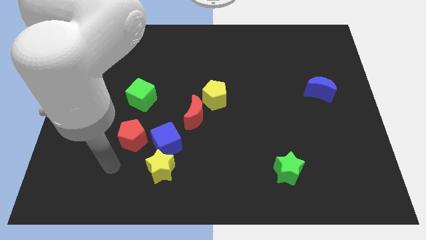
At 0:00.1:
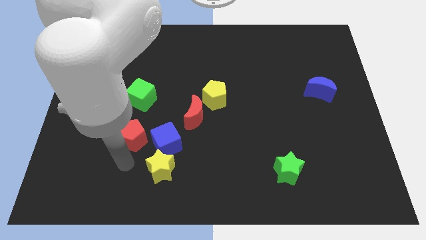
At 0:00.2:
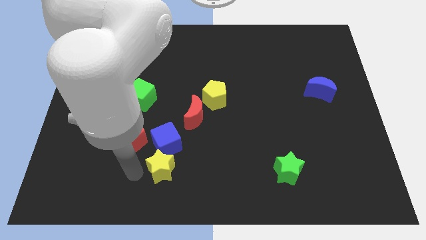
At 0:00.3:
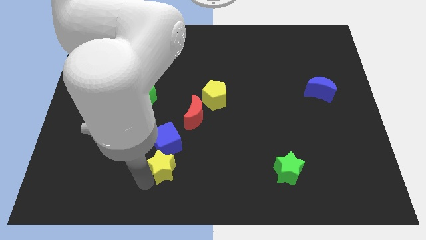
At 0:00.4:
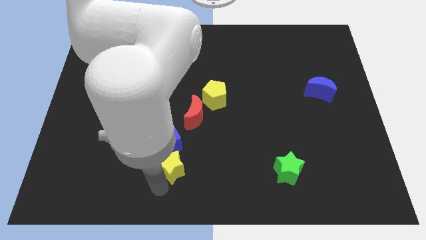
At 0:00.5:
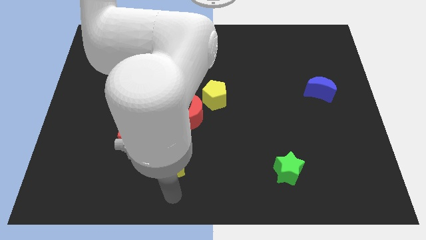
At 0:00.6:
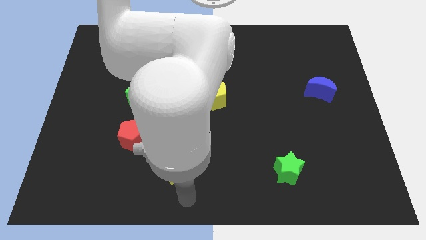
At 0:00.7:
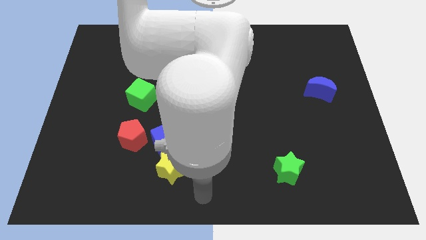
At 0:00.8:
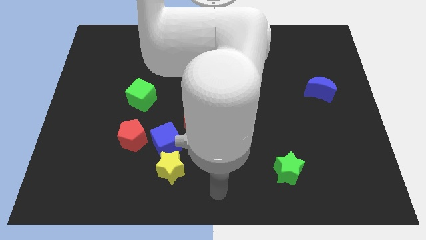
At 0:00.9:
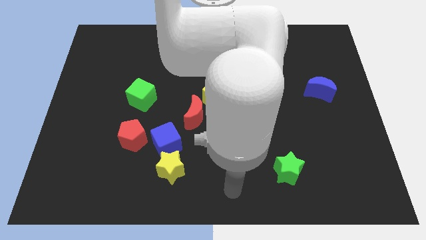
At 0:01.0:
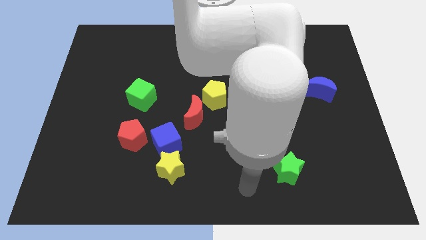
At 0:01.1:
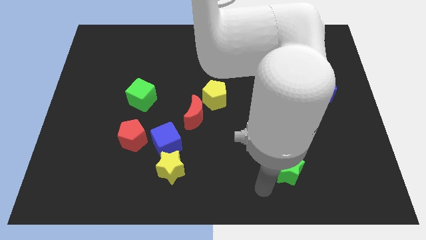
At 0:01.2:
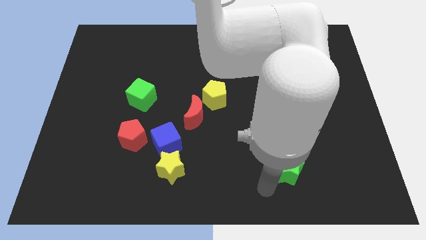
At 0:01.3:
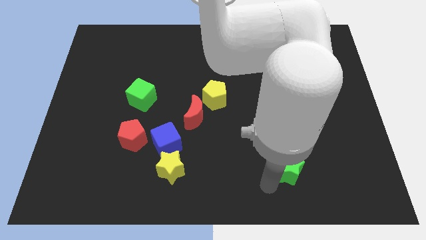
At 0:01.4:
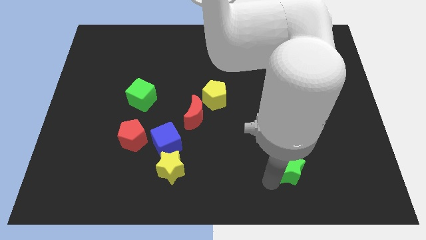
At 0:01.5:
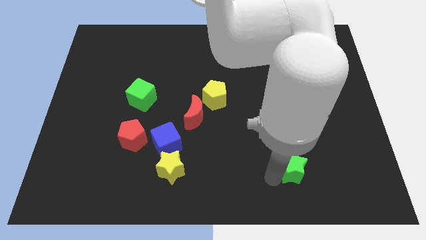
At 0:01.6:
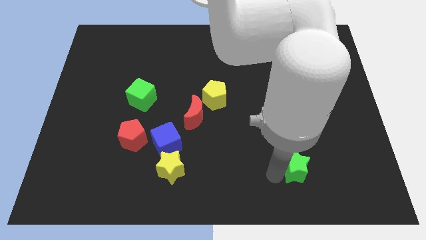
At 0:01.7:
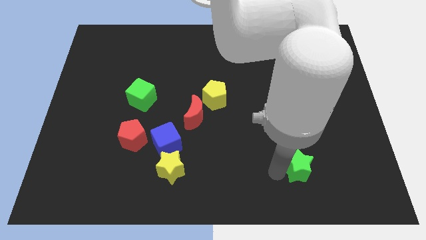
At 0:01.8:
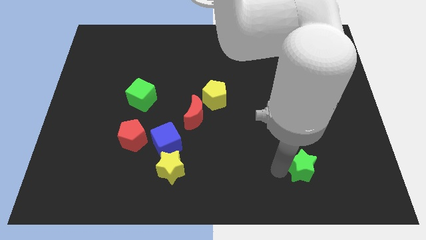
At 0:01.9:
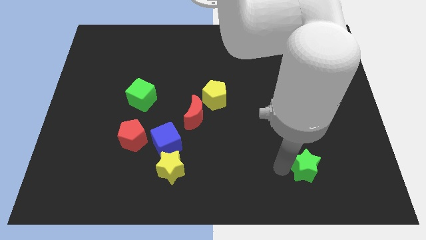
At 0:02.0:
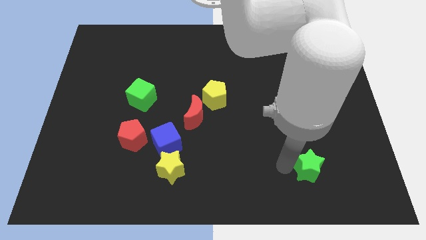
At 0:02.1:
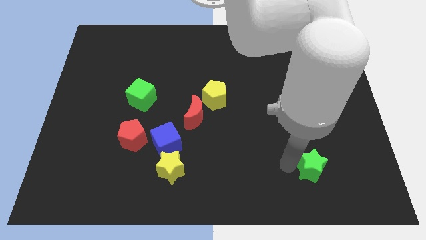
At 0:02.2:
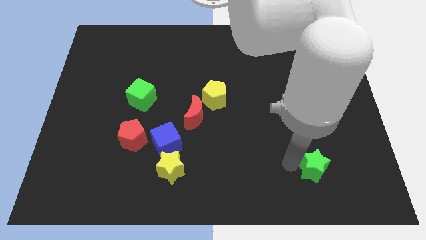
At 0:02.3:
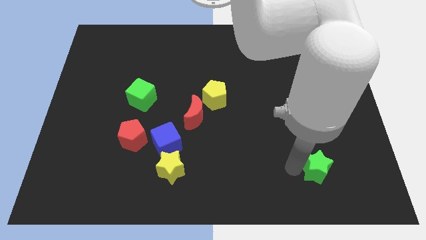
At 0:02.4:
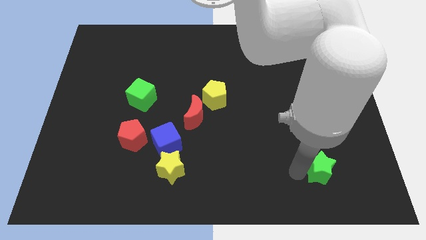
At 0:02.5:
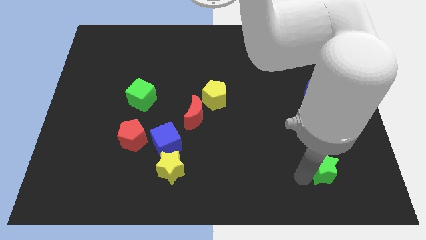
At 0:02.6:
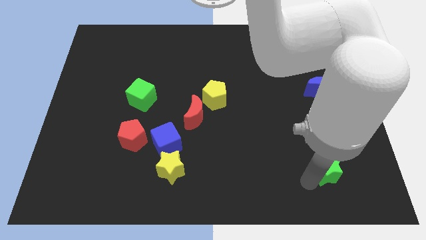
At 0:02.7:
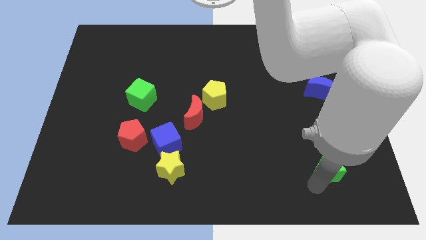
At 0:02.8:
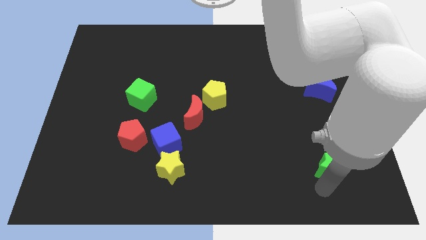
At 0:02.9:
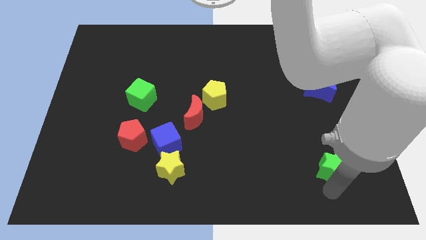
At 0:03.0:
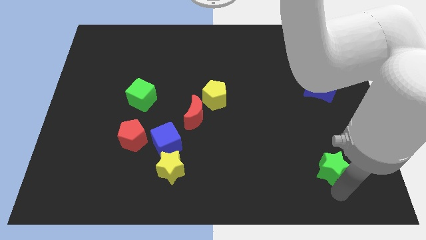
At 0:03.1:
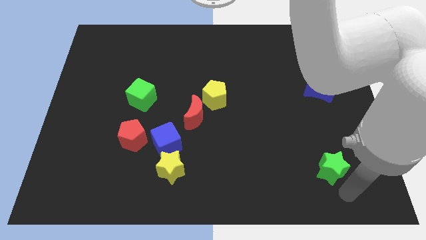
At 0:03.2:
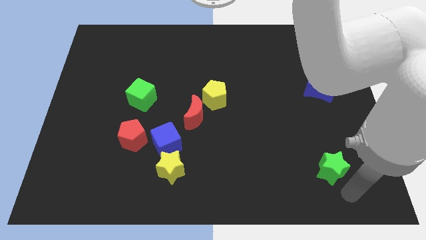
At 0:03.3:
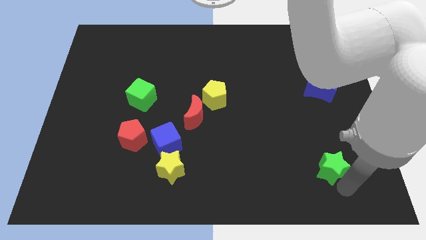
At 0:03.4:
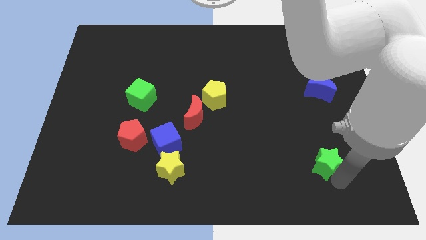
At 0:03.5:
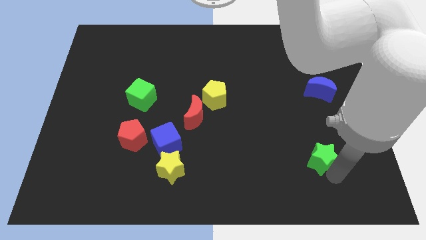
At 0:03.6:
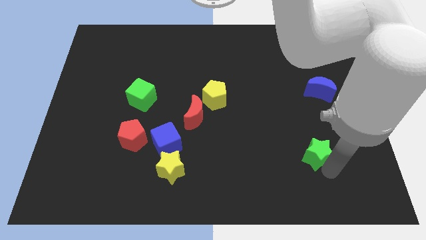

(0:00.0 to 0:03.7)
move the green star somewhat upwards and then to the right

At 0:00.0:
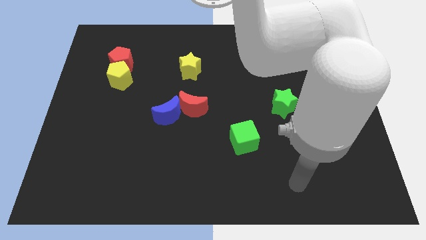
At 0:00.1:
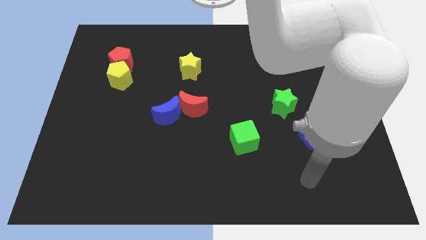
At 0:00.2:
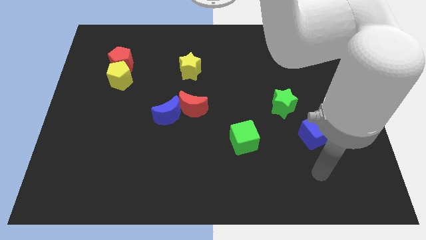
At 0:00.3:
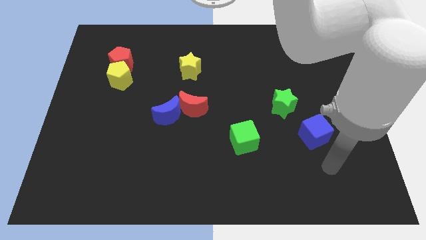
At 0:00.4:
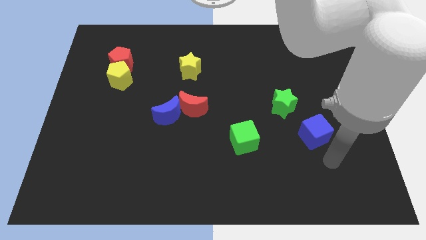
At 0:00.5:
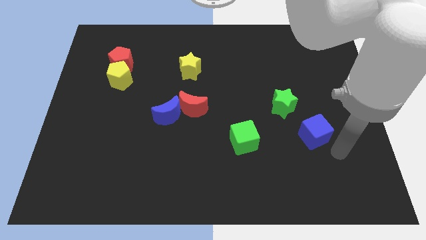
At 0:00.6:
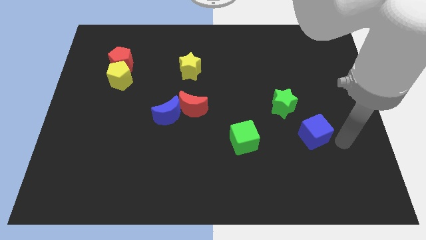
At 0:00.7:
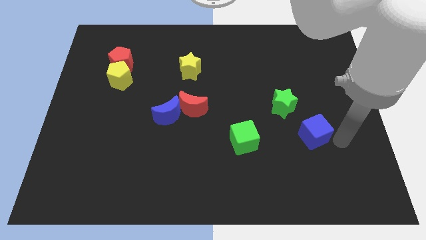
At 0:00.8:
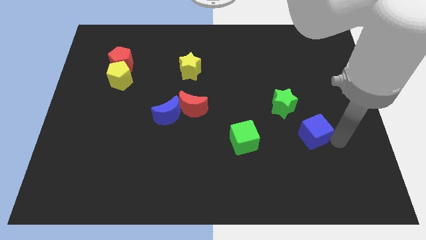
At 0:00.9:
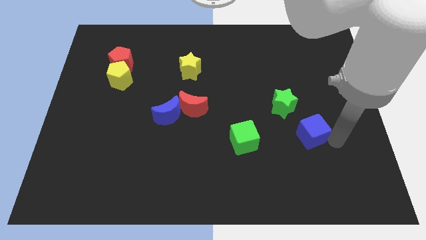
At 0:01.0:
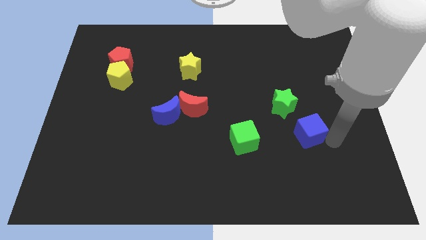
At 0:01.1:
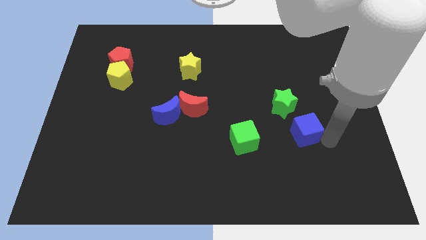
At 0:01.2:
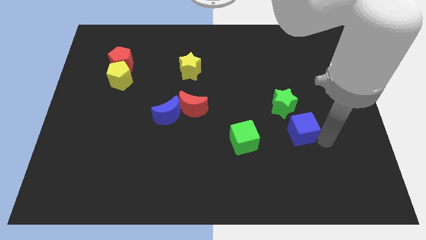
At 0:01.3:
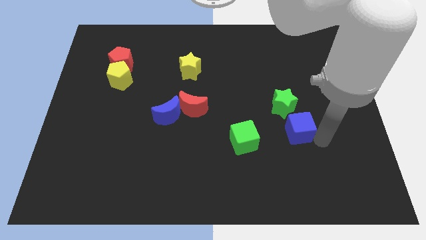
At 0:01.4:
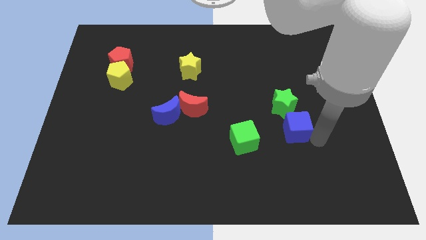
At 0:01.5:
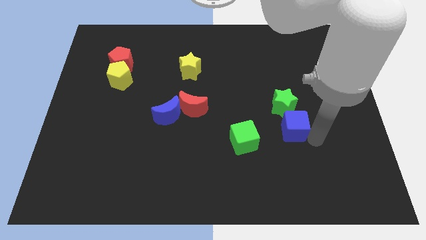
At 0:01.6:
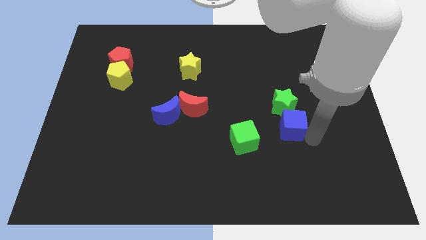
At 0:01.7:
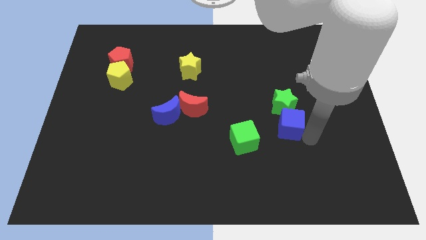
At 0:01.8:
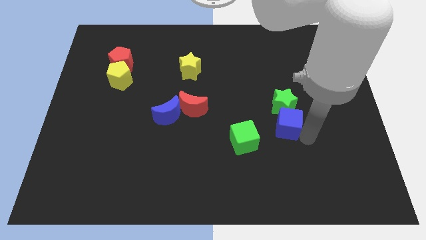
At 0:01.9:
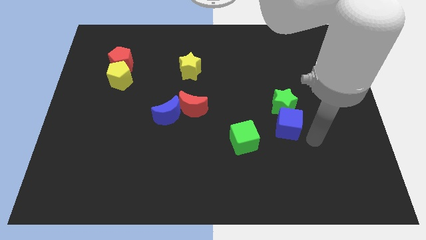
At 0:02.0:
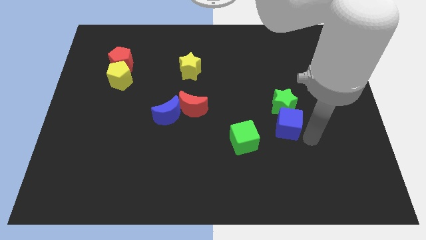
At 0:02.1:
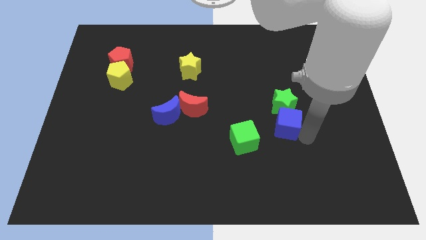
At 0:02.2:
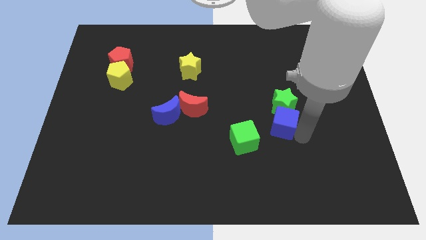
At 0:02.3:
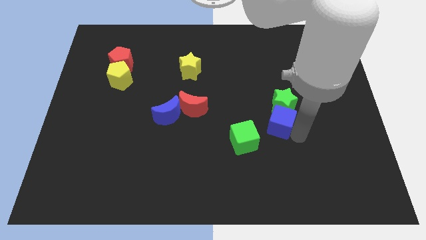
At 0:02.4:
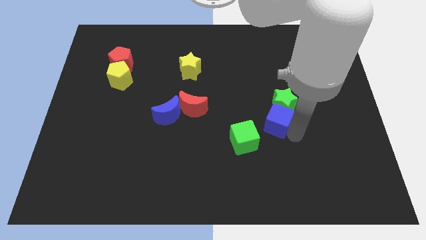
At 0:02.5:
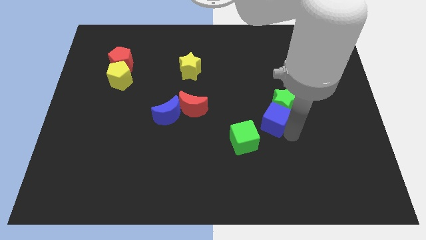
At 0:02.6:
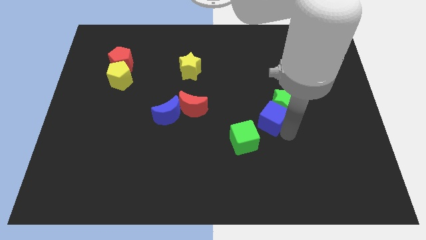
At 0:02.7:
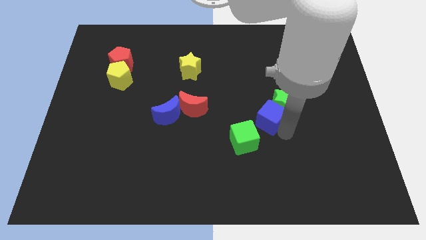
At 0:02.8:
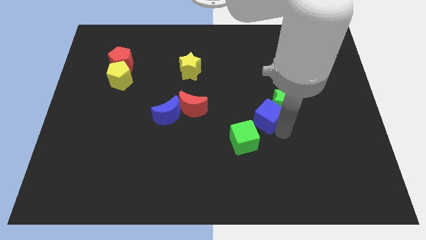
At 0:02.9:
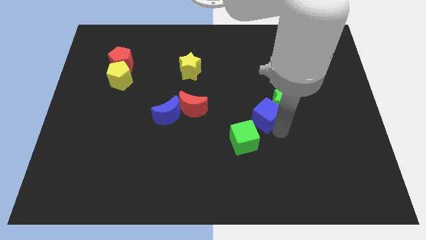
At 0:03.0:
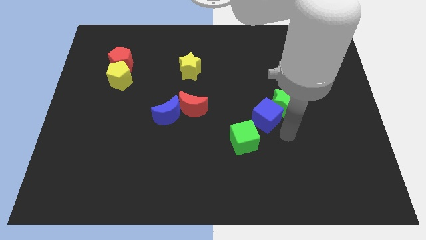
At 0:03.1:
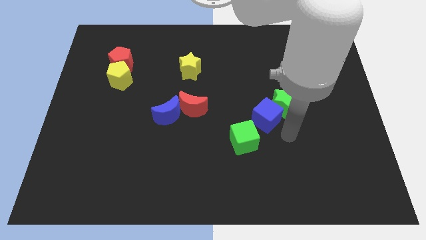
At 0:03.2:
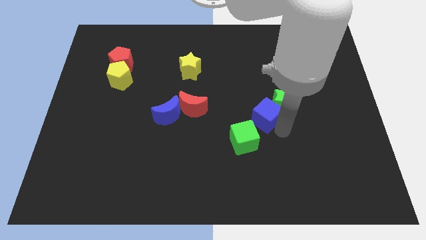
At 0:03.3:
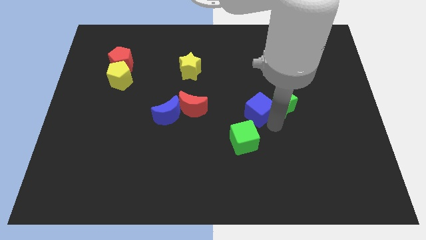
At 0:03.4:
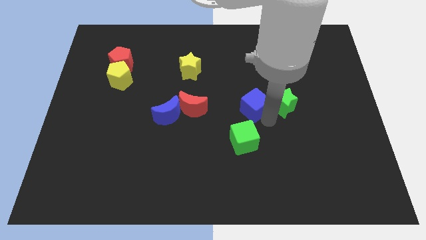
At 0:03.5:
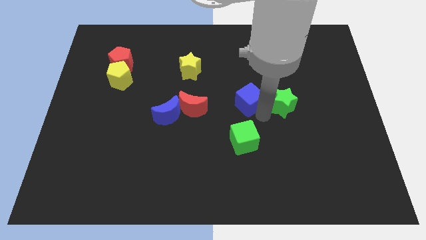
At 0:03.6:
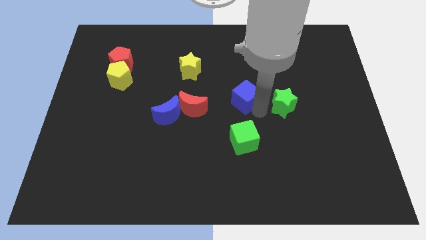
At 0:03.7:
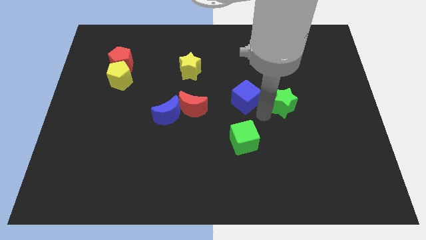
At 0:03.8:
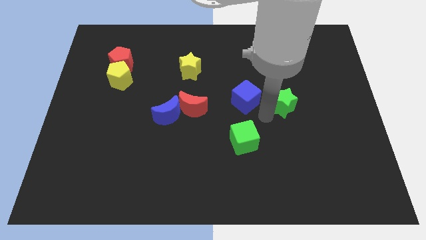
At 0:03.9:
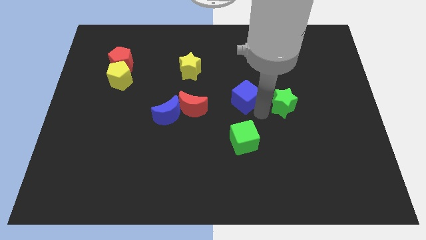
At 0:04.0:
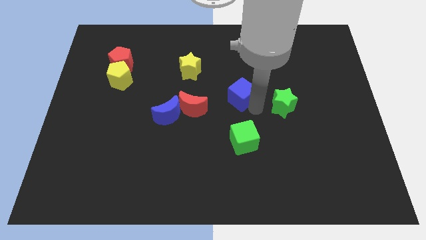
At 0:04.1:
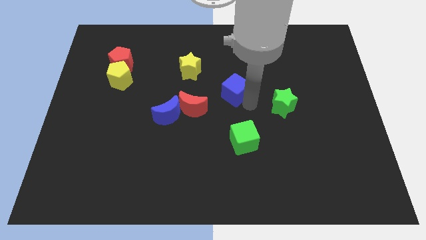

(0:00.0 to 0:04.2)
slide the blue cube up and left
